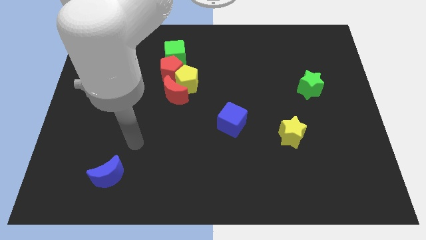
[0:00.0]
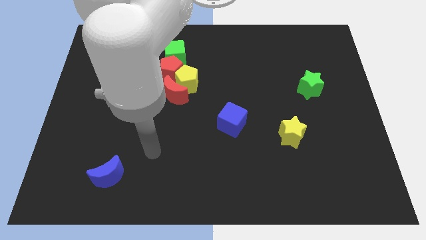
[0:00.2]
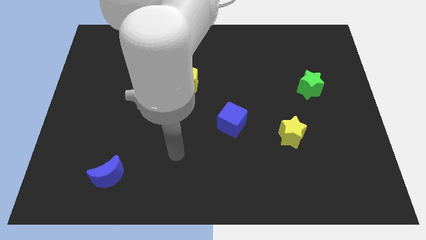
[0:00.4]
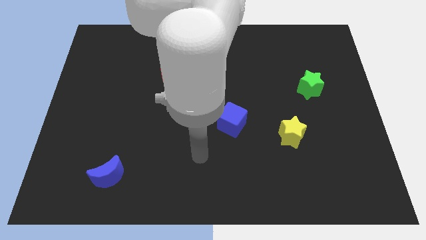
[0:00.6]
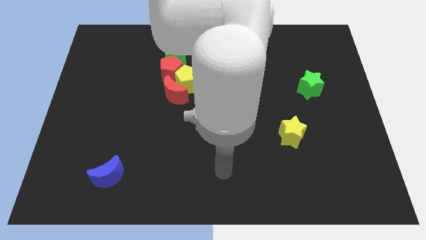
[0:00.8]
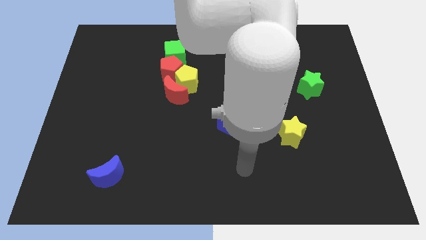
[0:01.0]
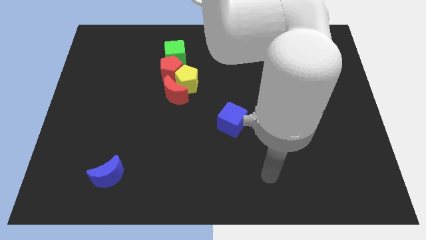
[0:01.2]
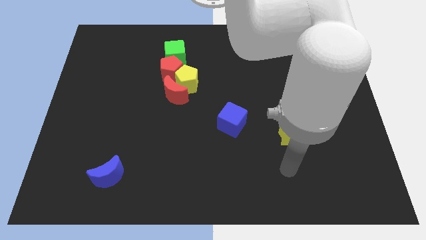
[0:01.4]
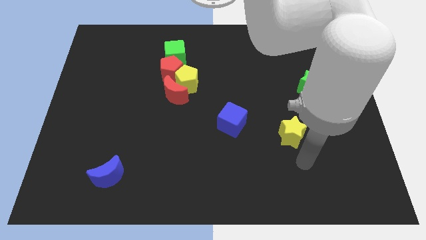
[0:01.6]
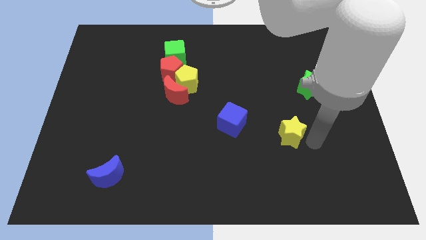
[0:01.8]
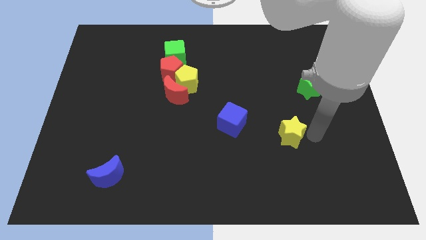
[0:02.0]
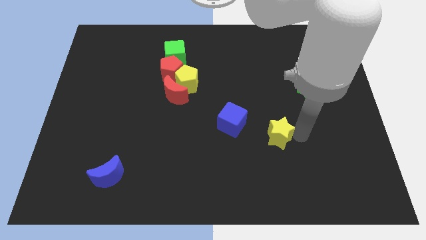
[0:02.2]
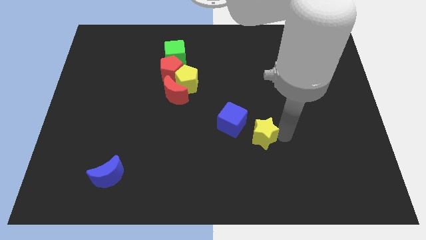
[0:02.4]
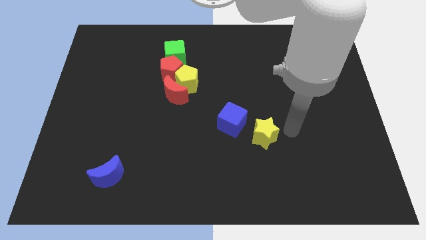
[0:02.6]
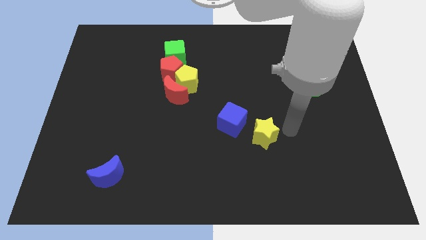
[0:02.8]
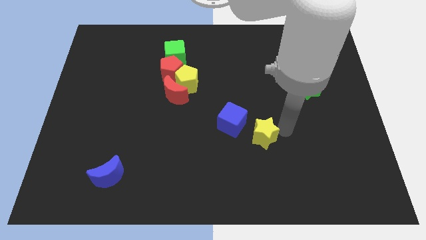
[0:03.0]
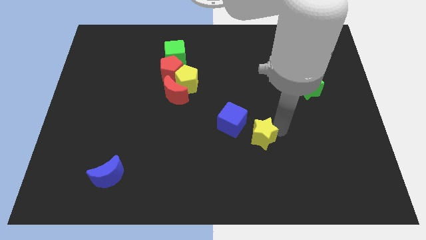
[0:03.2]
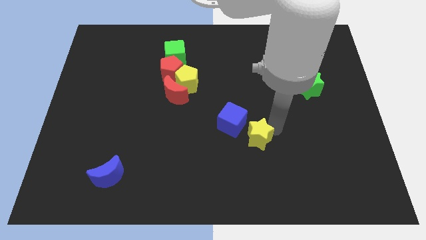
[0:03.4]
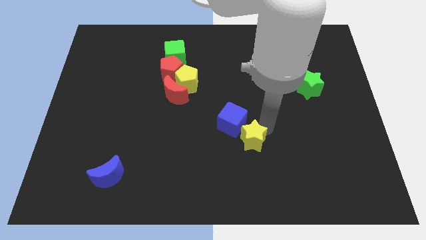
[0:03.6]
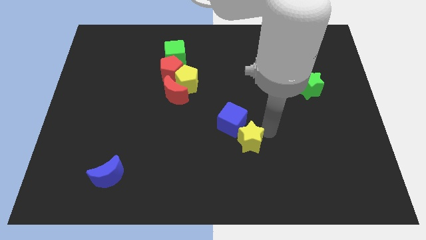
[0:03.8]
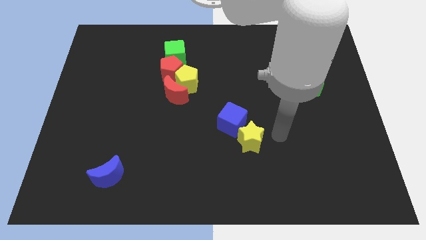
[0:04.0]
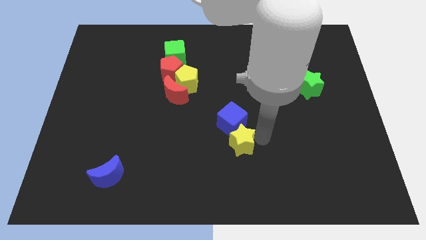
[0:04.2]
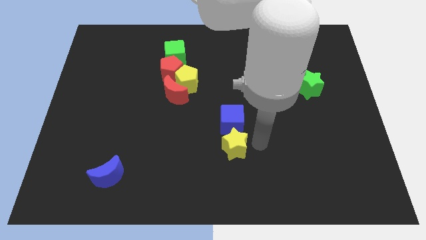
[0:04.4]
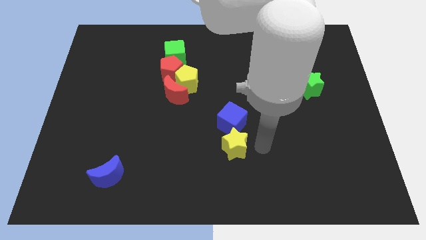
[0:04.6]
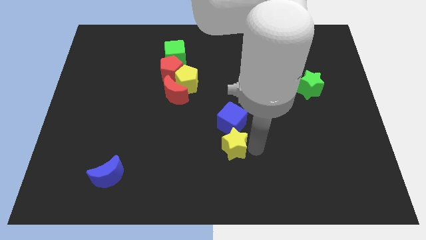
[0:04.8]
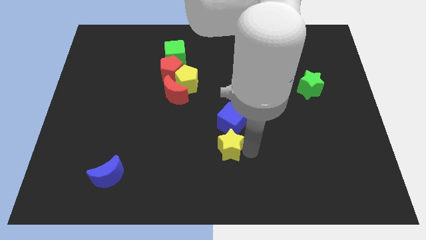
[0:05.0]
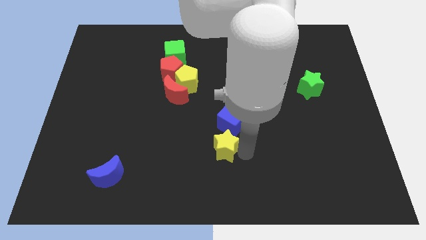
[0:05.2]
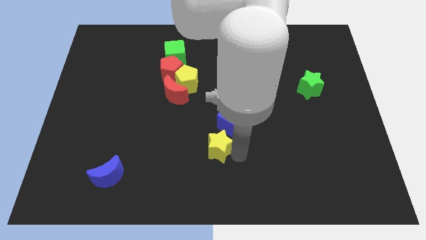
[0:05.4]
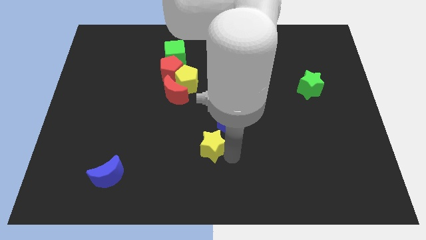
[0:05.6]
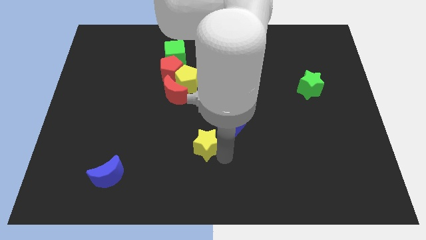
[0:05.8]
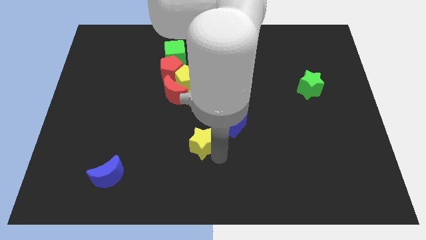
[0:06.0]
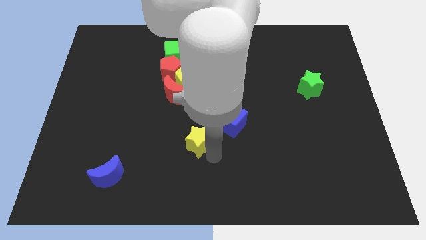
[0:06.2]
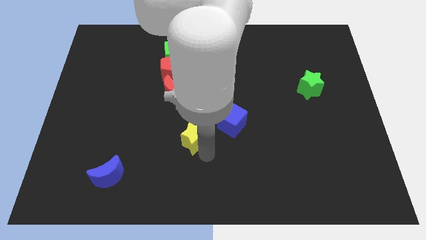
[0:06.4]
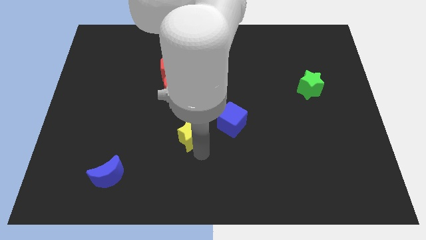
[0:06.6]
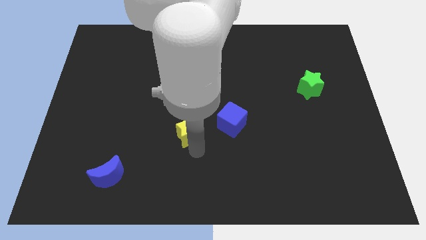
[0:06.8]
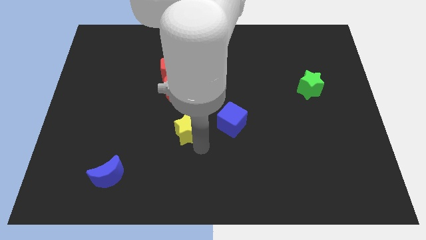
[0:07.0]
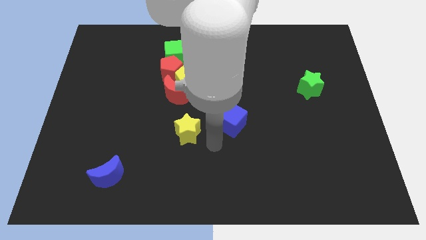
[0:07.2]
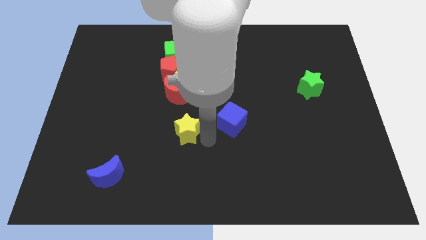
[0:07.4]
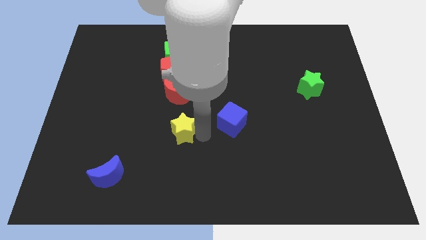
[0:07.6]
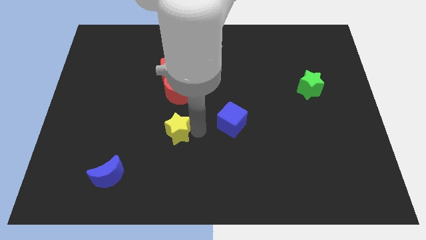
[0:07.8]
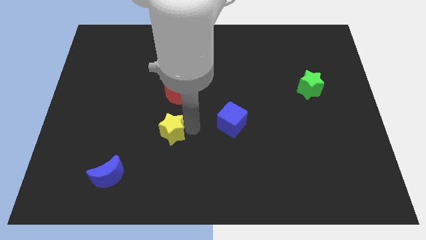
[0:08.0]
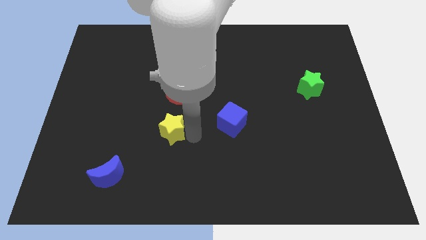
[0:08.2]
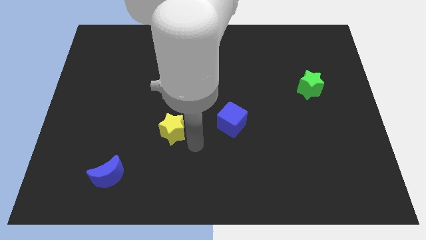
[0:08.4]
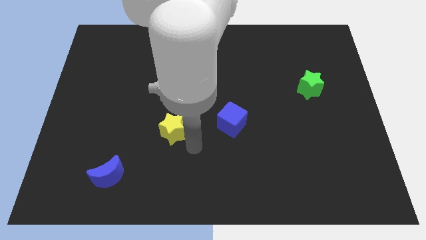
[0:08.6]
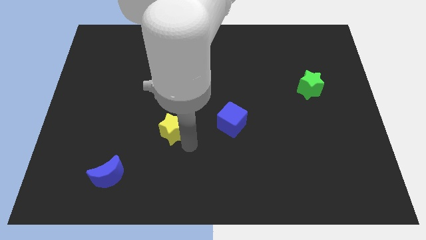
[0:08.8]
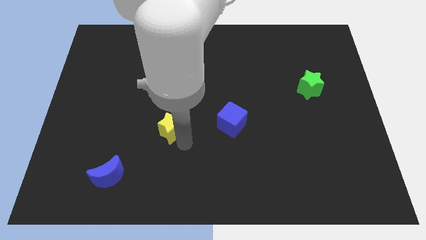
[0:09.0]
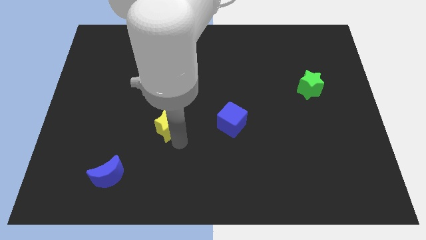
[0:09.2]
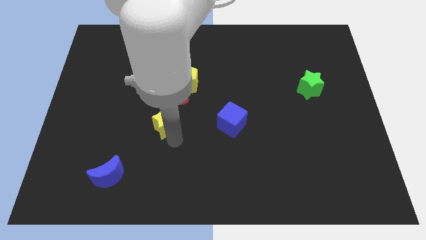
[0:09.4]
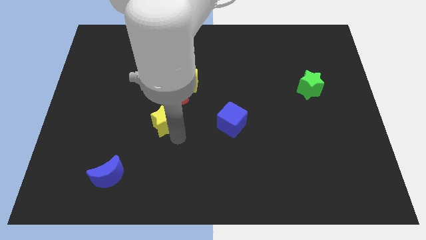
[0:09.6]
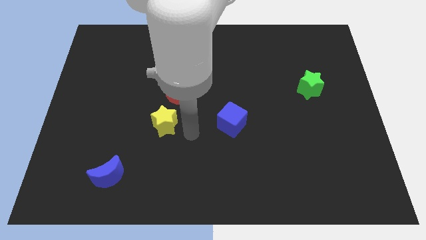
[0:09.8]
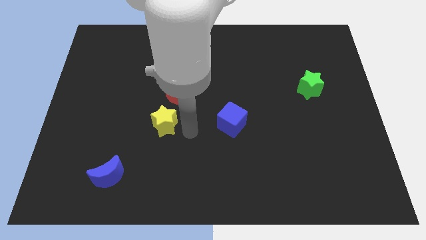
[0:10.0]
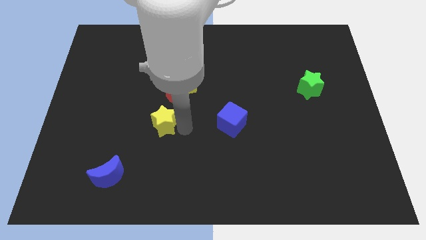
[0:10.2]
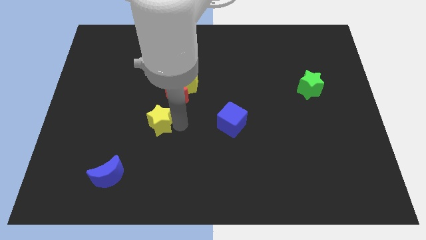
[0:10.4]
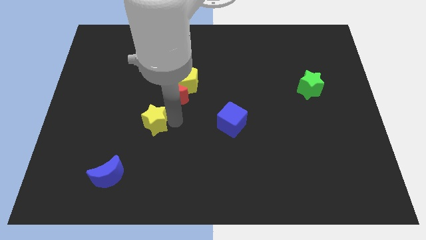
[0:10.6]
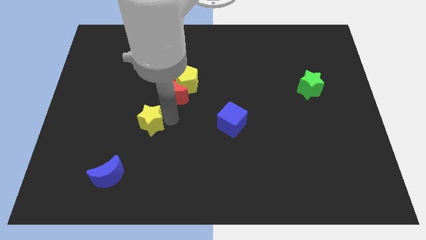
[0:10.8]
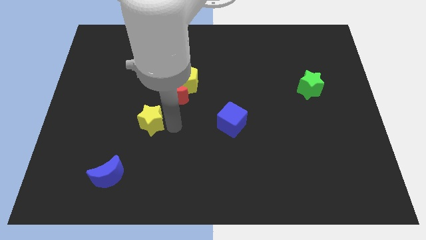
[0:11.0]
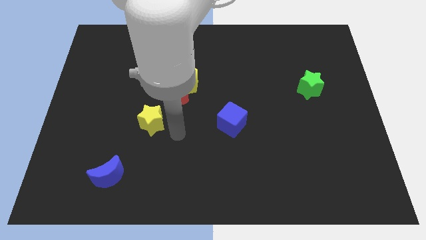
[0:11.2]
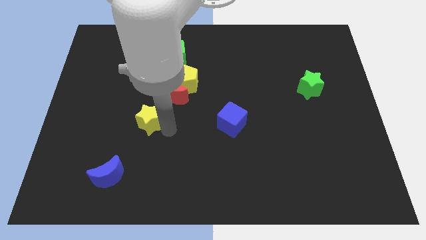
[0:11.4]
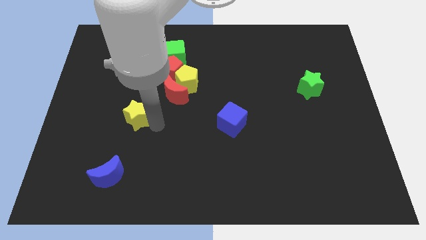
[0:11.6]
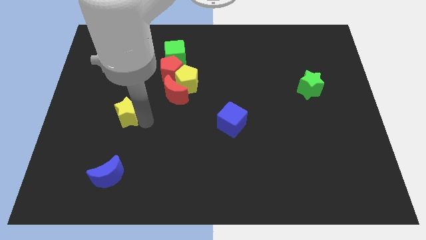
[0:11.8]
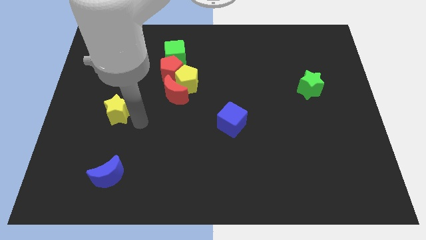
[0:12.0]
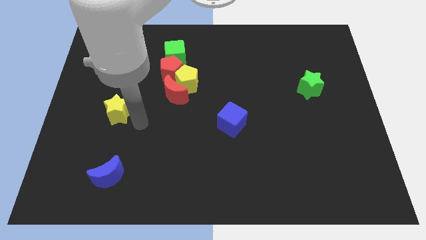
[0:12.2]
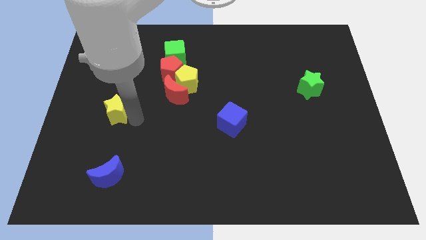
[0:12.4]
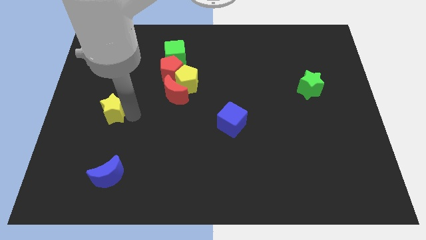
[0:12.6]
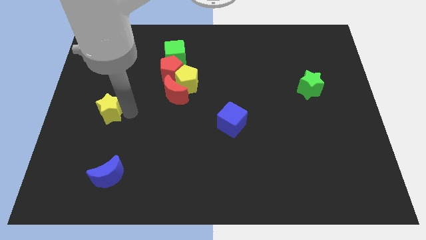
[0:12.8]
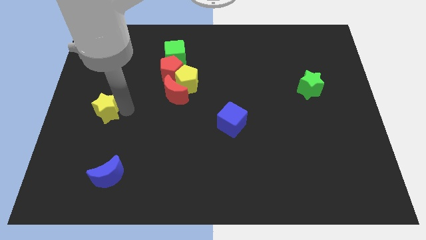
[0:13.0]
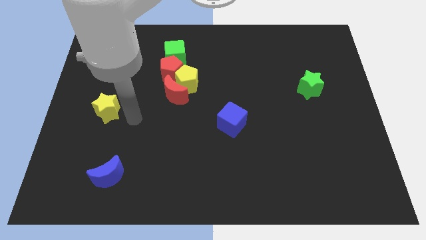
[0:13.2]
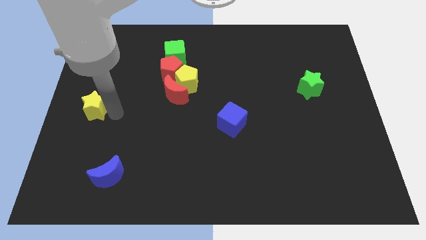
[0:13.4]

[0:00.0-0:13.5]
move the yellow star to the center left
